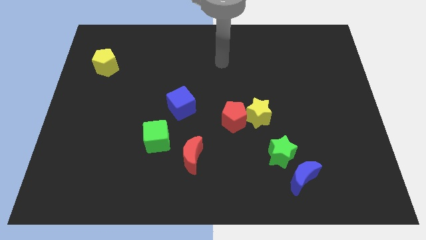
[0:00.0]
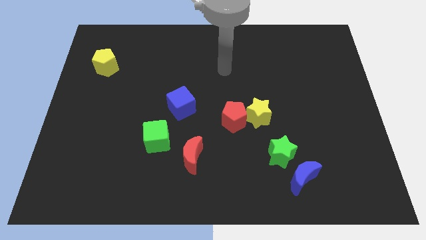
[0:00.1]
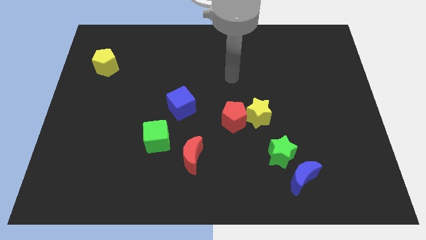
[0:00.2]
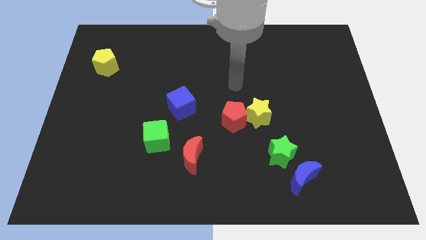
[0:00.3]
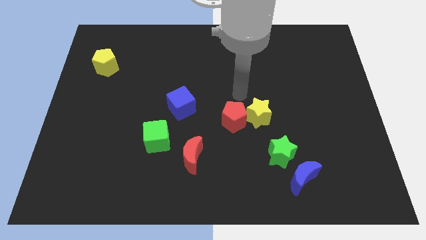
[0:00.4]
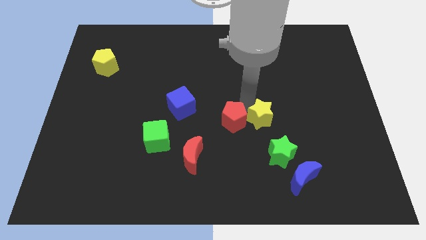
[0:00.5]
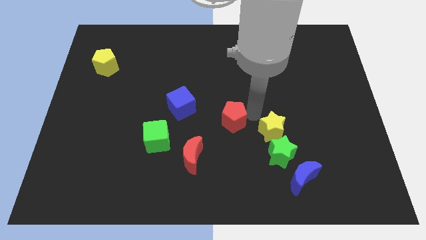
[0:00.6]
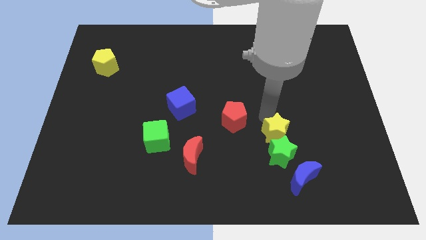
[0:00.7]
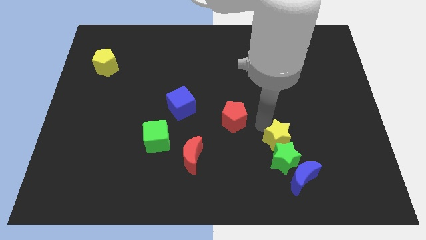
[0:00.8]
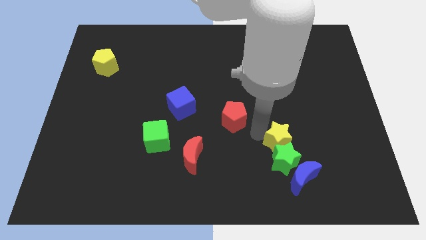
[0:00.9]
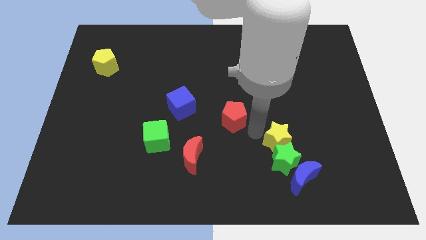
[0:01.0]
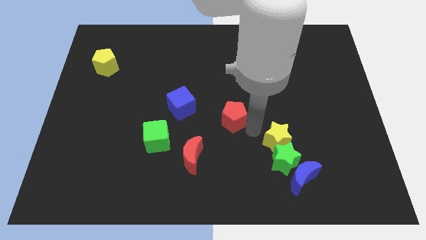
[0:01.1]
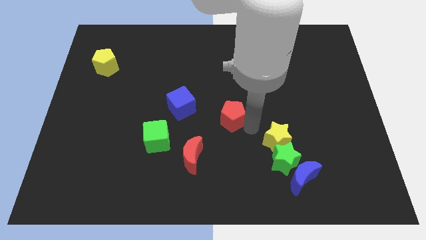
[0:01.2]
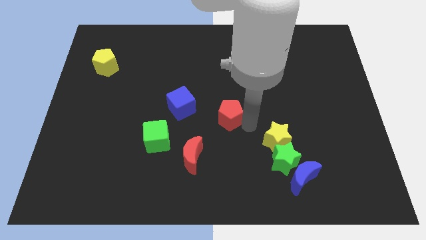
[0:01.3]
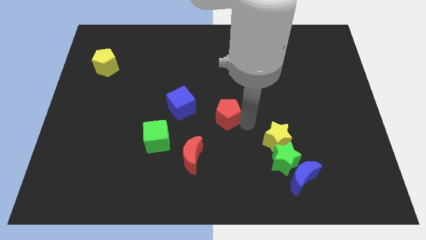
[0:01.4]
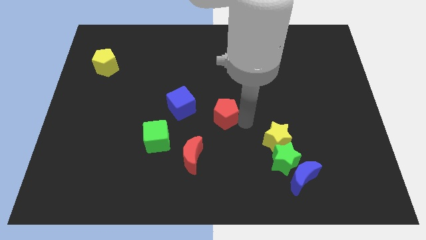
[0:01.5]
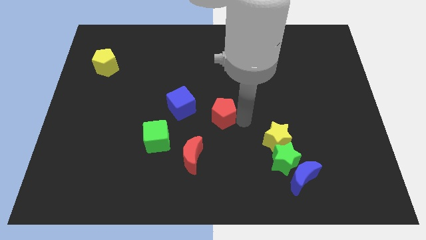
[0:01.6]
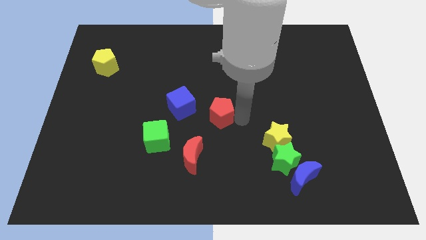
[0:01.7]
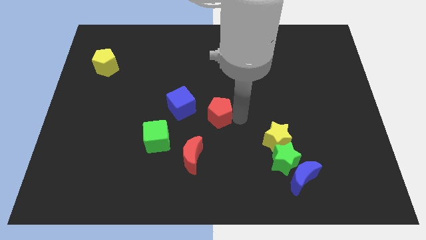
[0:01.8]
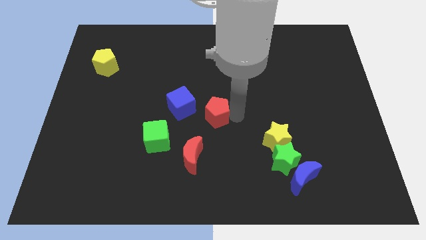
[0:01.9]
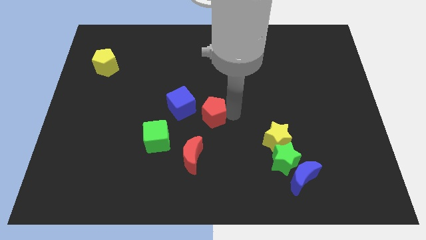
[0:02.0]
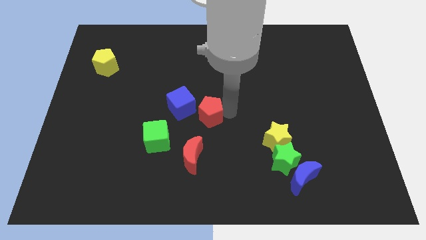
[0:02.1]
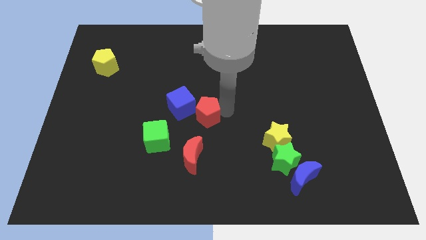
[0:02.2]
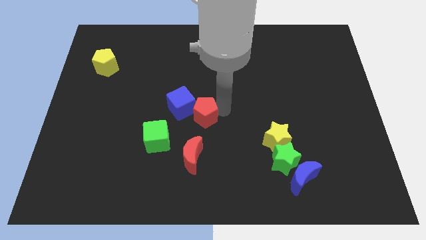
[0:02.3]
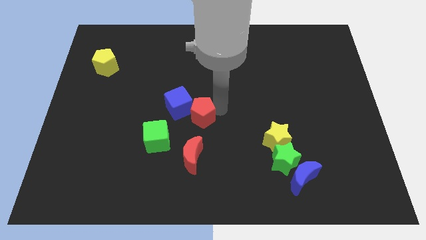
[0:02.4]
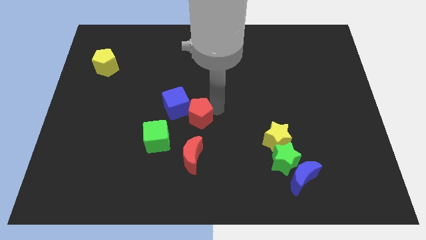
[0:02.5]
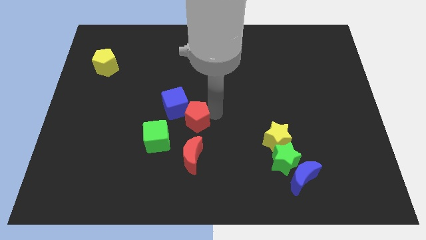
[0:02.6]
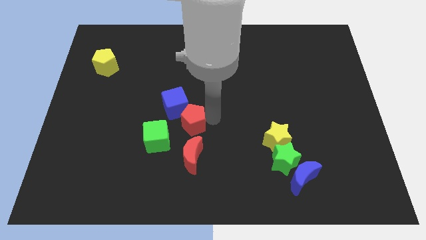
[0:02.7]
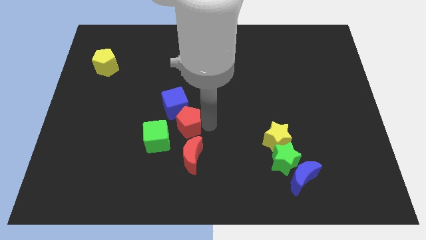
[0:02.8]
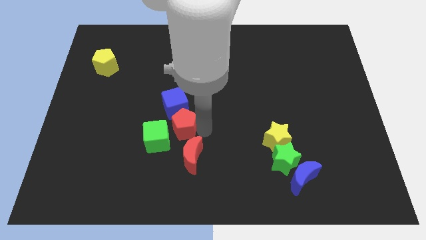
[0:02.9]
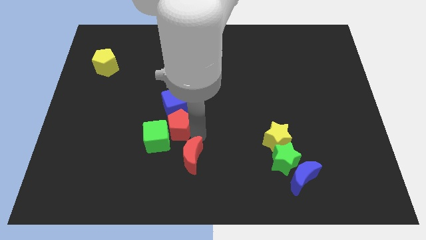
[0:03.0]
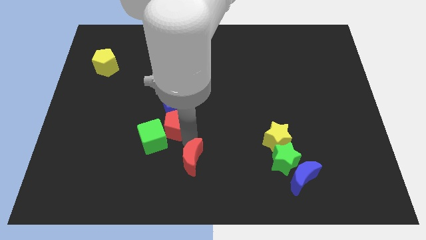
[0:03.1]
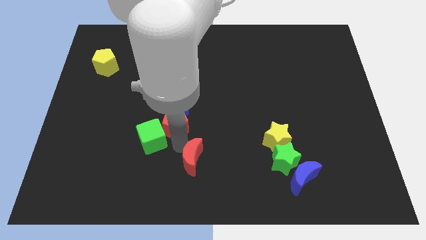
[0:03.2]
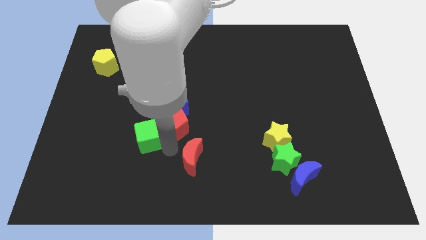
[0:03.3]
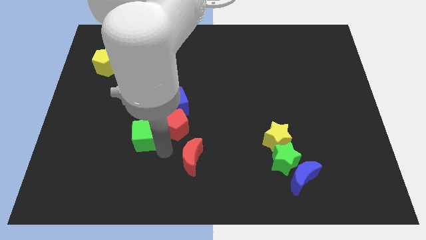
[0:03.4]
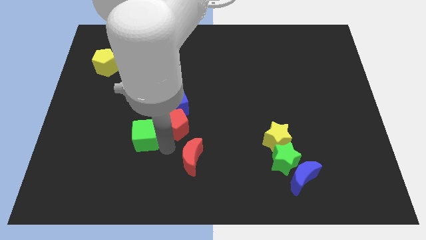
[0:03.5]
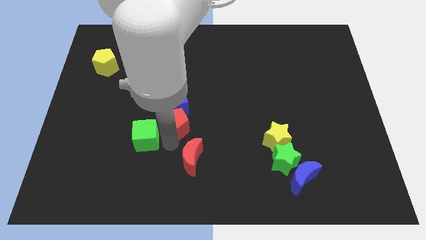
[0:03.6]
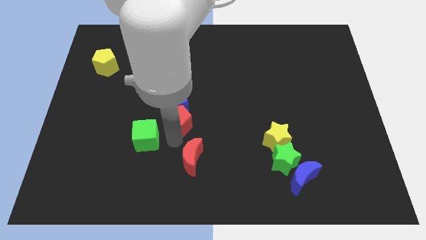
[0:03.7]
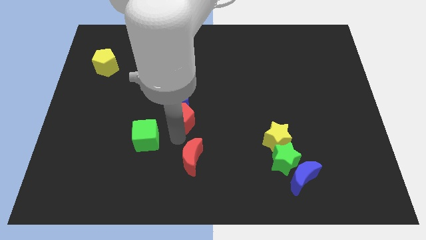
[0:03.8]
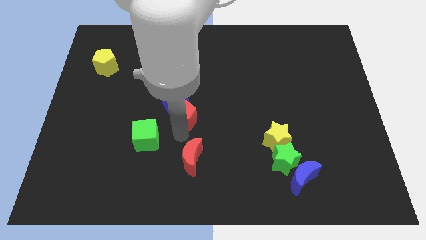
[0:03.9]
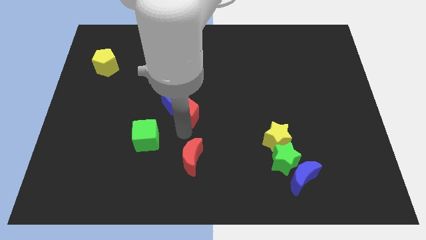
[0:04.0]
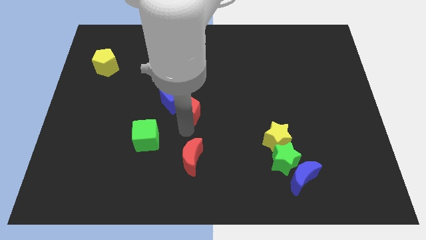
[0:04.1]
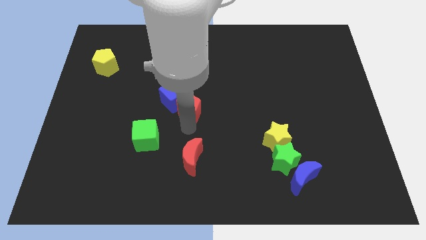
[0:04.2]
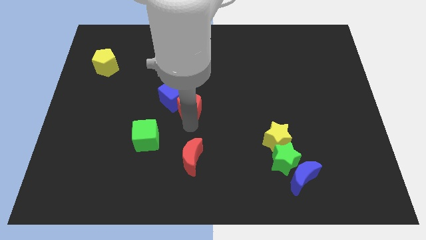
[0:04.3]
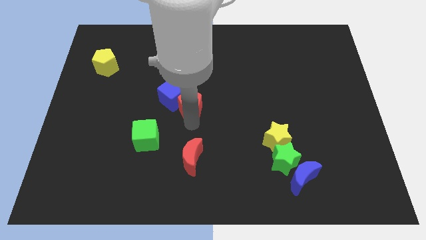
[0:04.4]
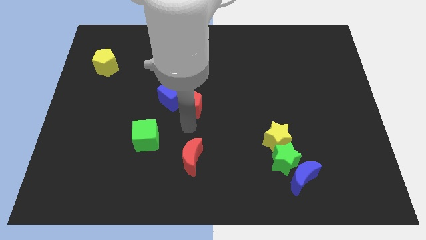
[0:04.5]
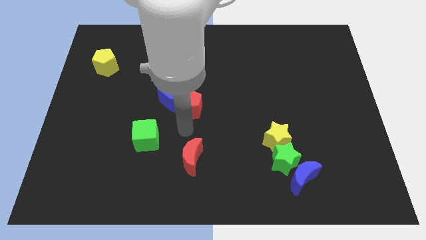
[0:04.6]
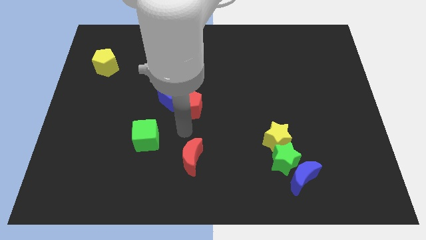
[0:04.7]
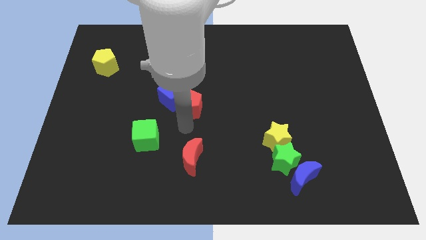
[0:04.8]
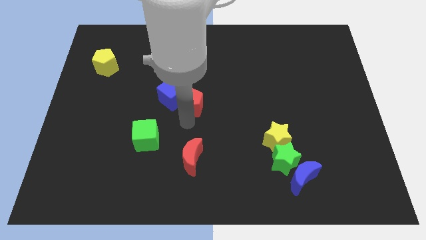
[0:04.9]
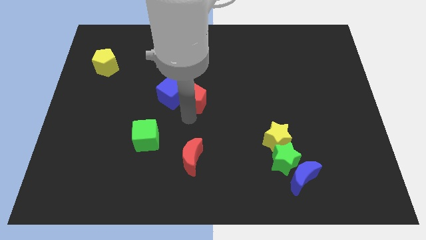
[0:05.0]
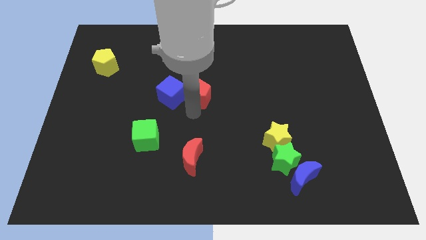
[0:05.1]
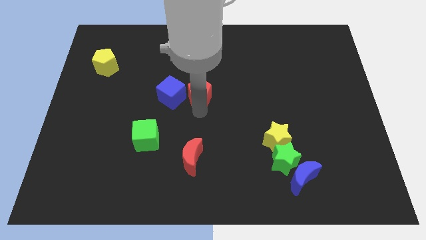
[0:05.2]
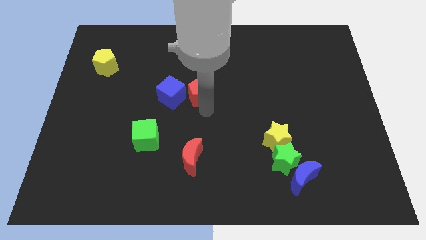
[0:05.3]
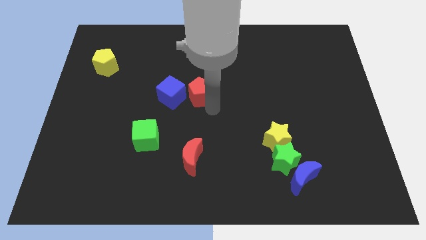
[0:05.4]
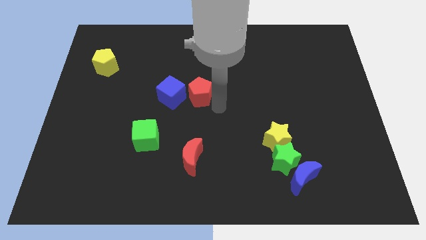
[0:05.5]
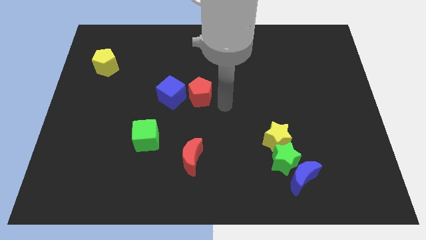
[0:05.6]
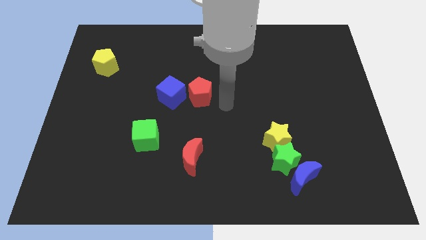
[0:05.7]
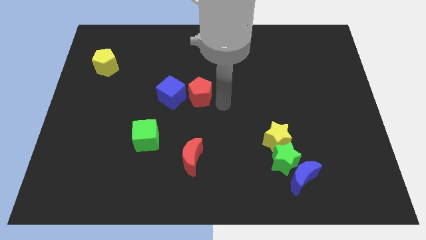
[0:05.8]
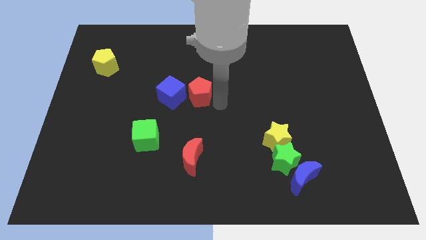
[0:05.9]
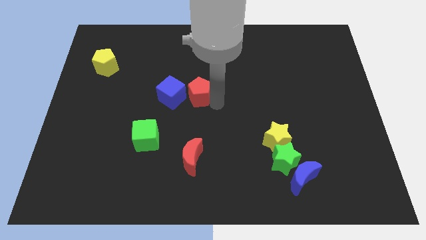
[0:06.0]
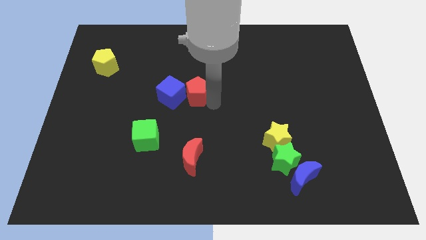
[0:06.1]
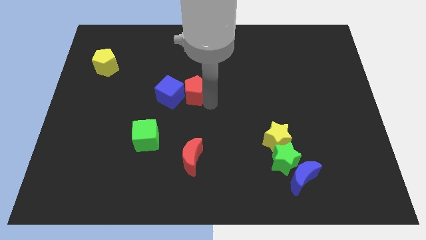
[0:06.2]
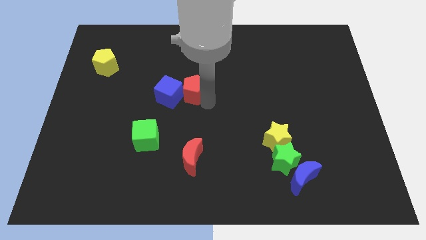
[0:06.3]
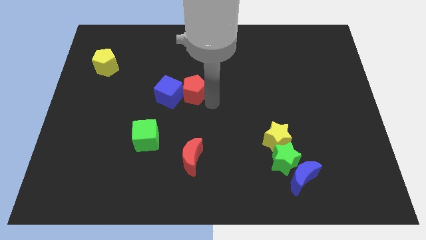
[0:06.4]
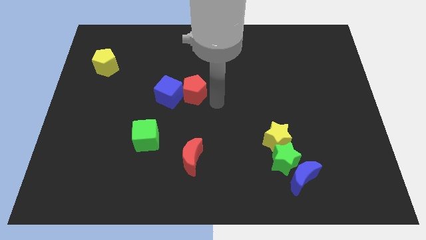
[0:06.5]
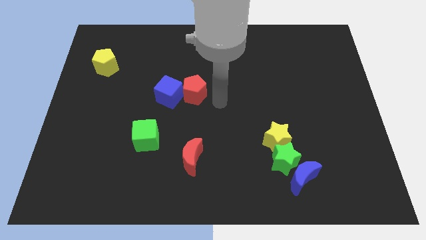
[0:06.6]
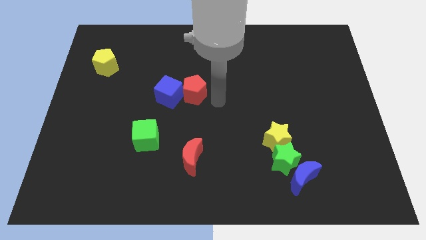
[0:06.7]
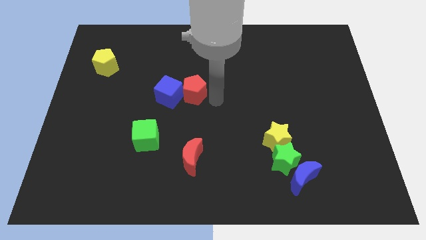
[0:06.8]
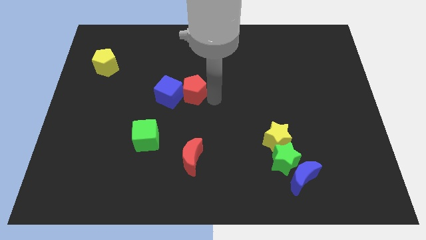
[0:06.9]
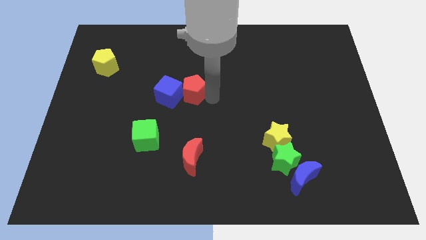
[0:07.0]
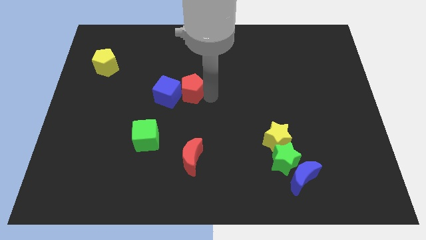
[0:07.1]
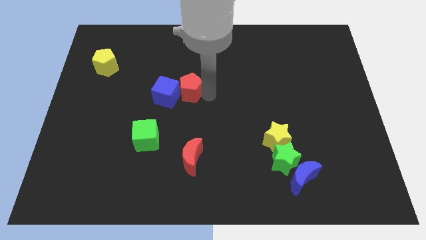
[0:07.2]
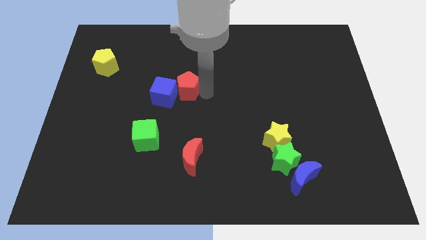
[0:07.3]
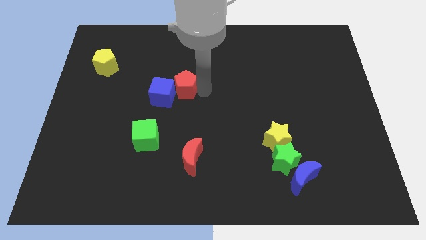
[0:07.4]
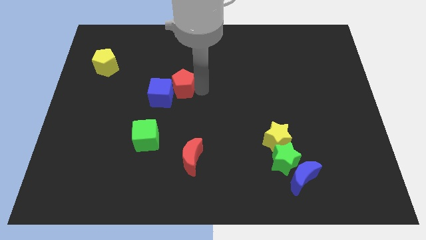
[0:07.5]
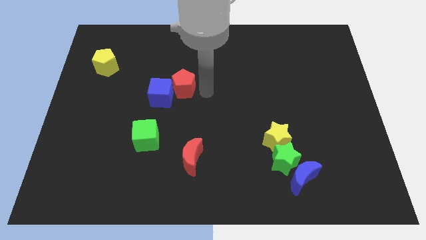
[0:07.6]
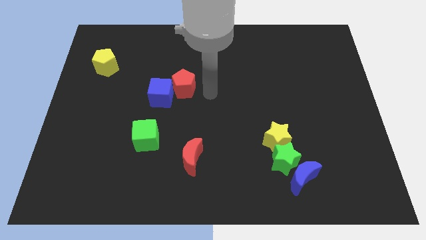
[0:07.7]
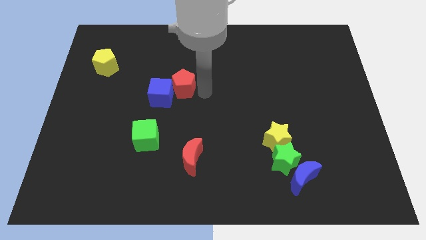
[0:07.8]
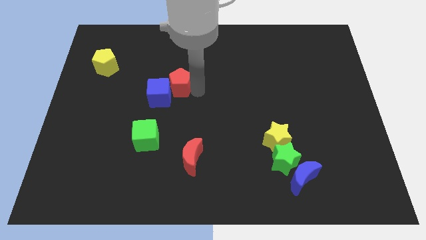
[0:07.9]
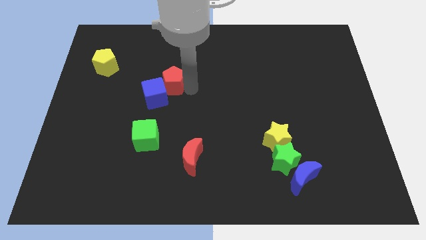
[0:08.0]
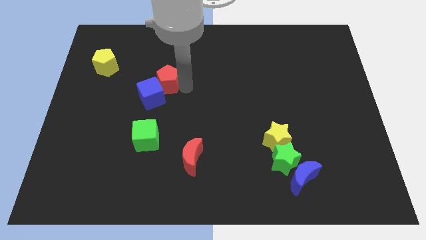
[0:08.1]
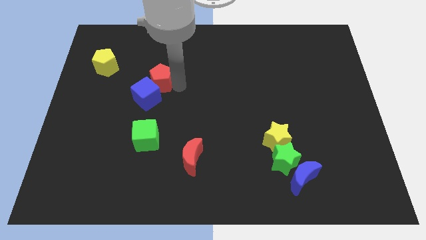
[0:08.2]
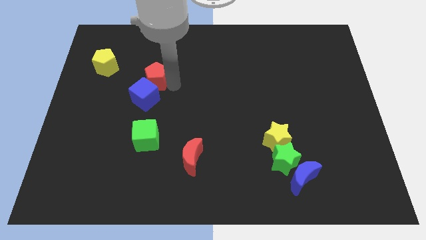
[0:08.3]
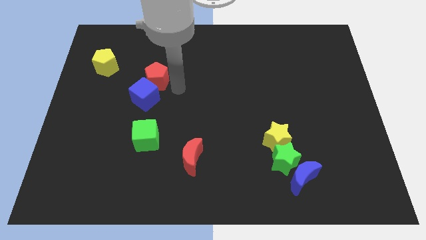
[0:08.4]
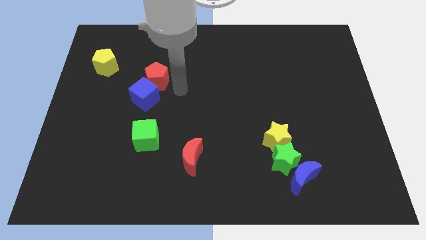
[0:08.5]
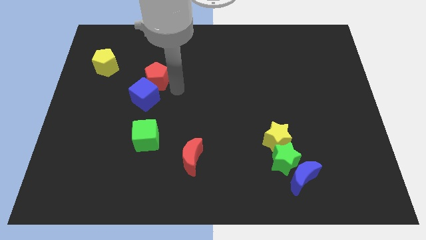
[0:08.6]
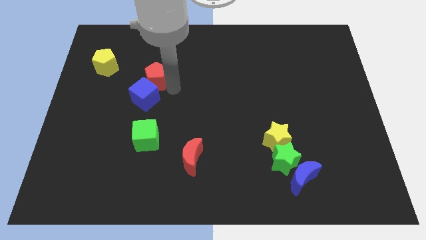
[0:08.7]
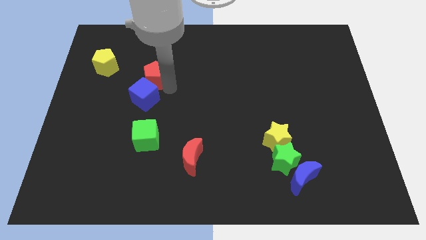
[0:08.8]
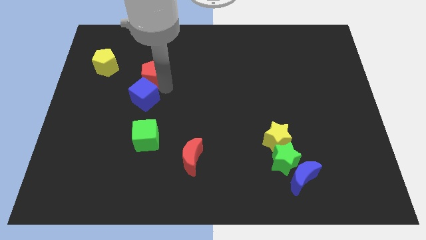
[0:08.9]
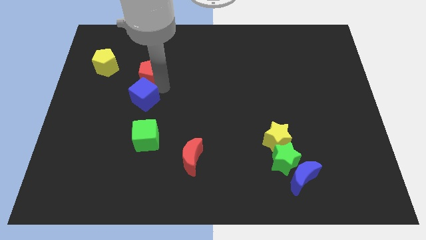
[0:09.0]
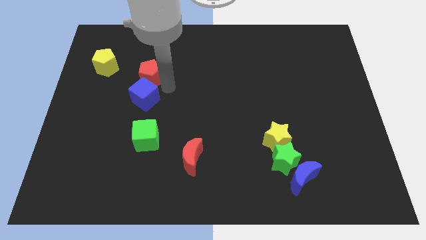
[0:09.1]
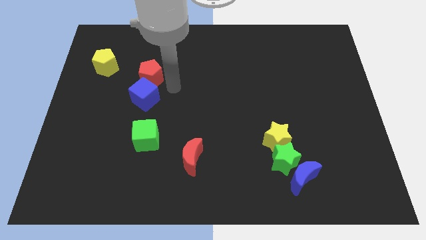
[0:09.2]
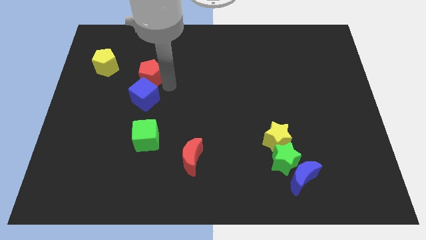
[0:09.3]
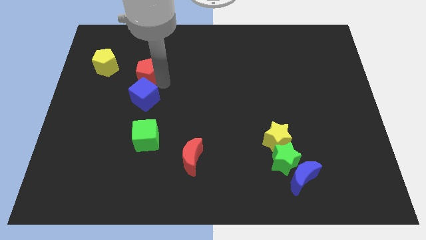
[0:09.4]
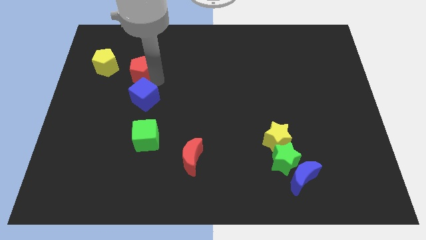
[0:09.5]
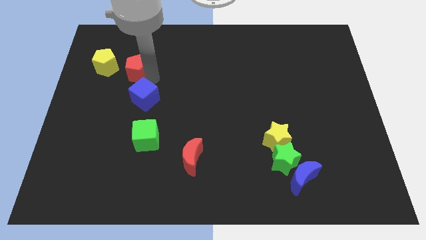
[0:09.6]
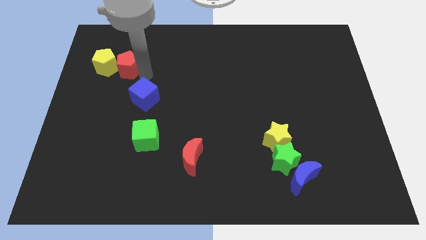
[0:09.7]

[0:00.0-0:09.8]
slide the red pentagon close to the yellow pentagon
